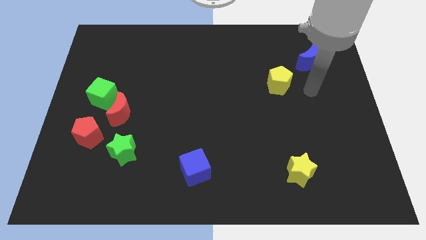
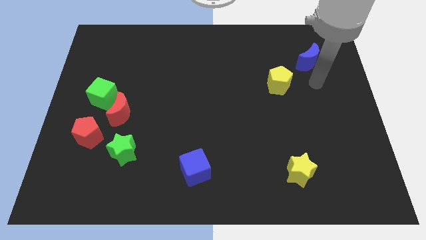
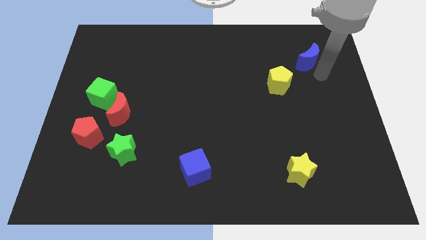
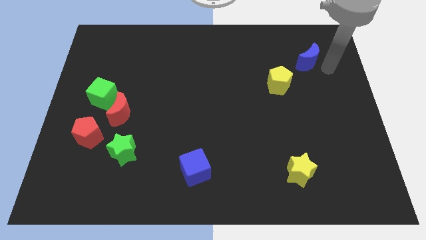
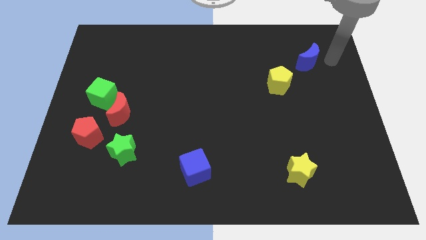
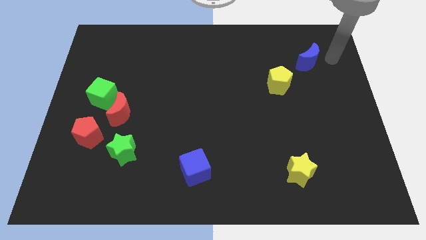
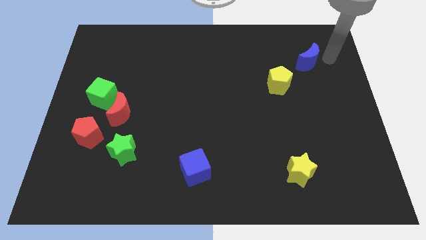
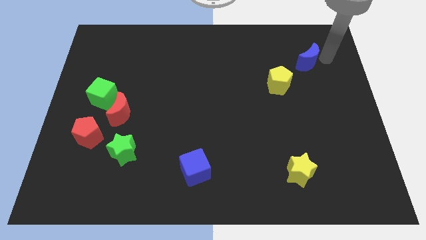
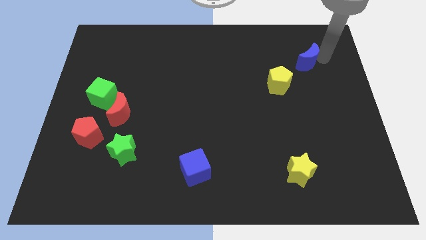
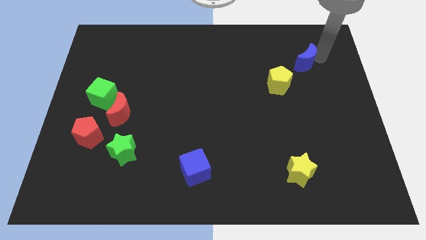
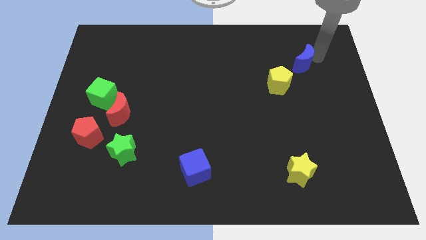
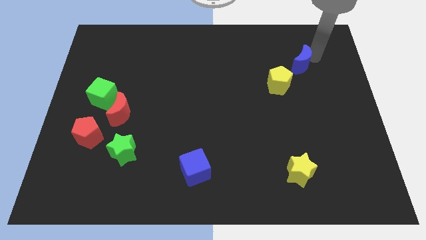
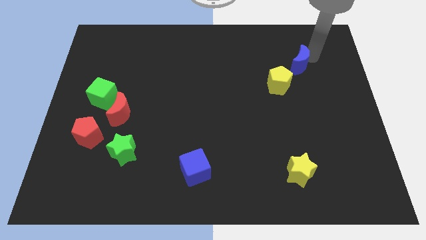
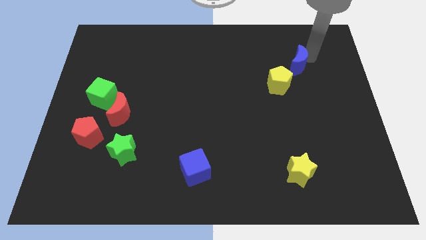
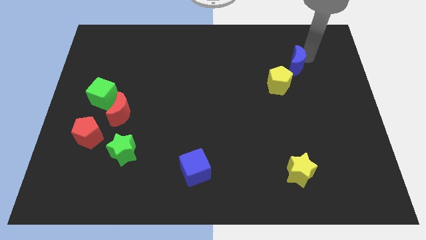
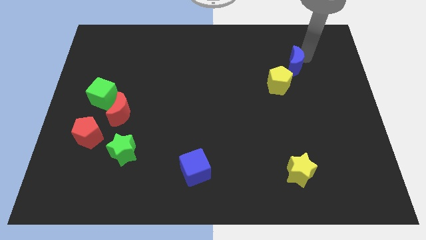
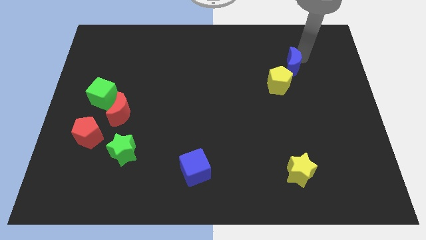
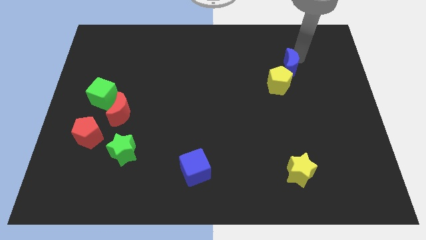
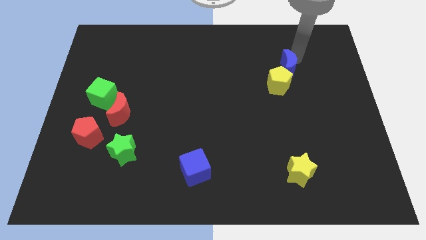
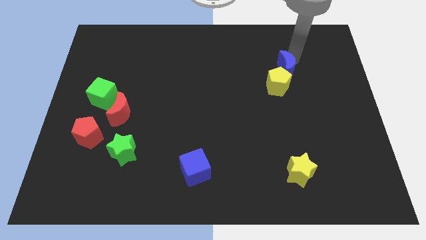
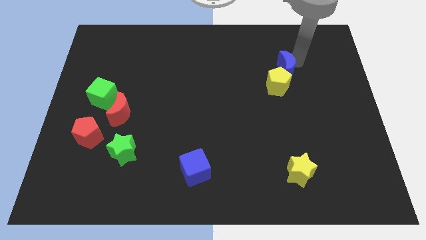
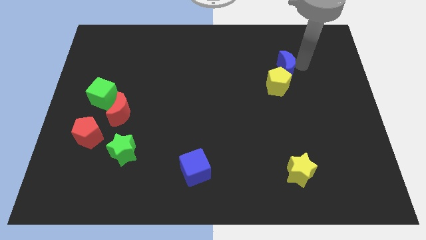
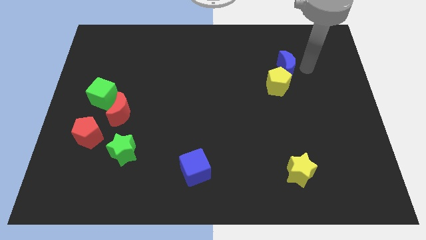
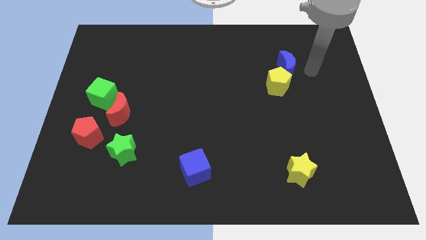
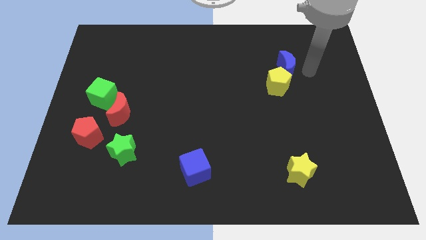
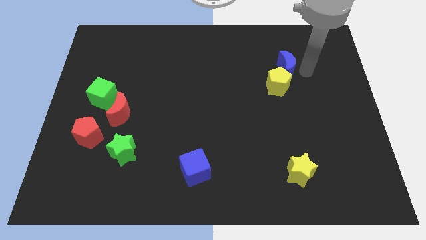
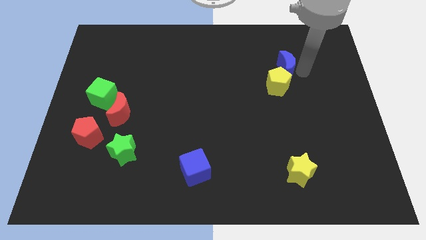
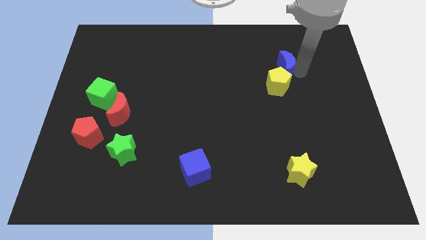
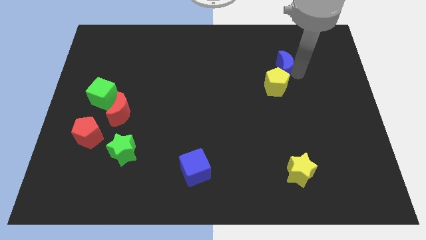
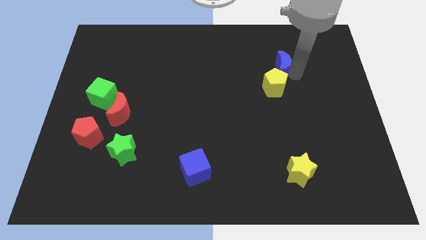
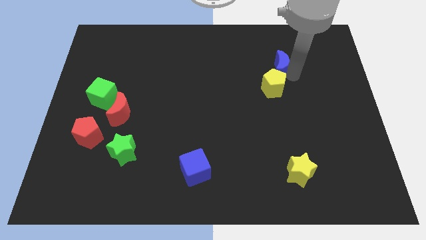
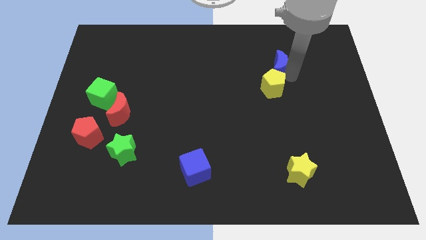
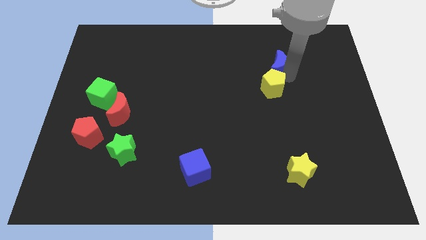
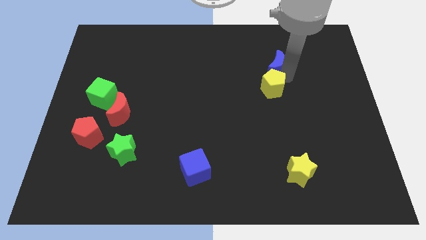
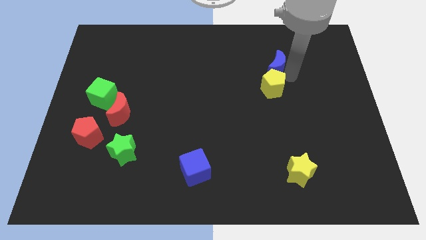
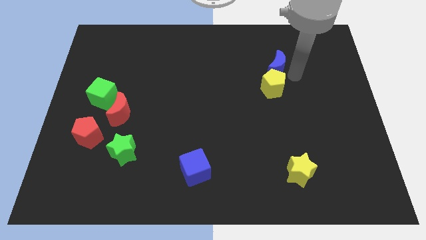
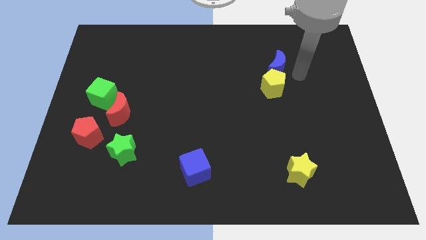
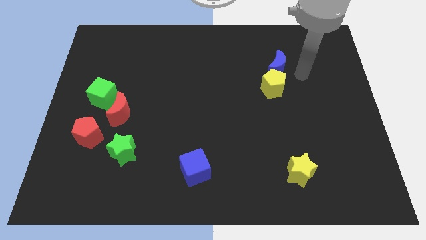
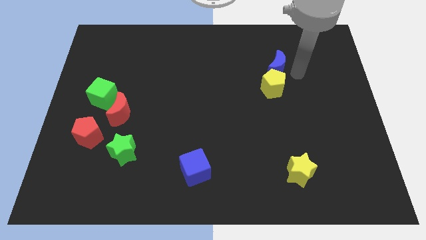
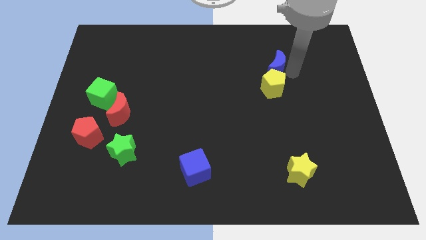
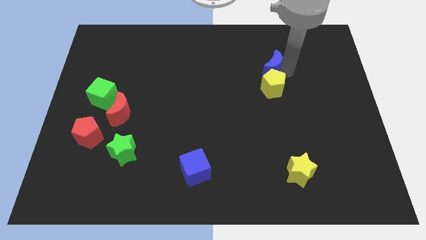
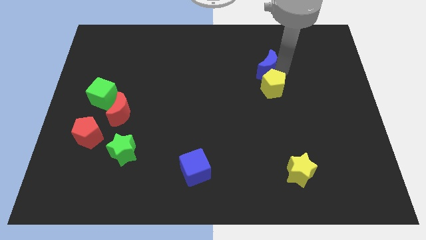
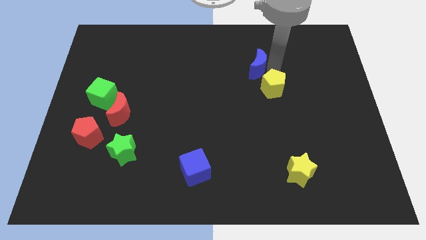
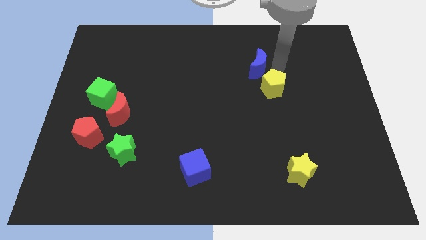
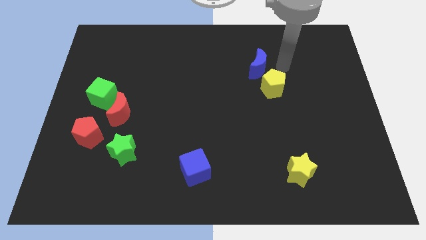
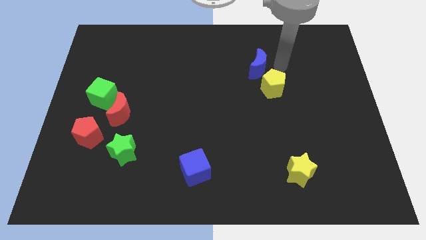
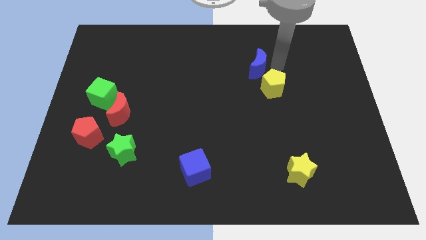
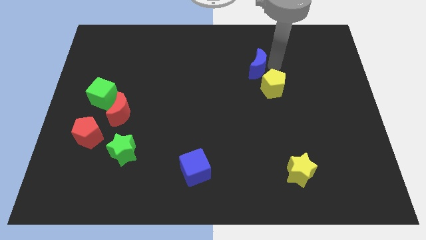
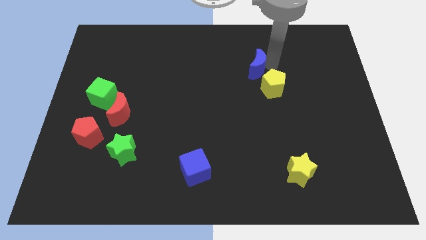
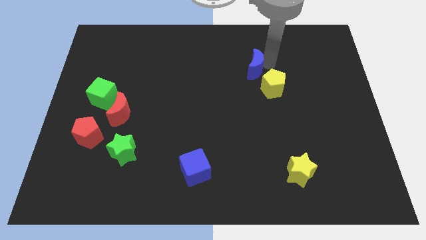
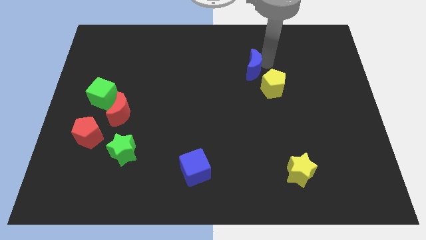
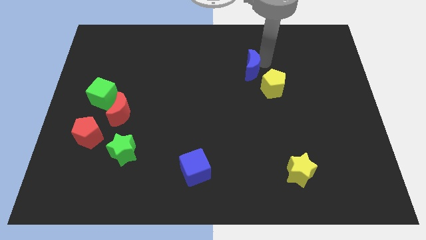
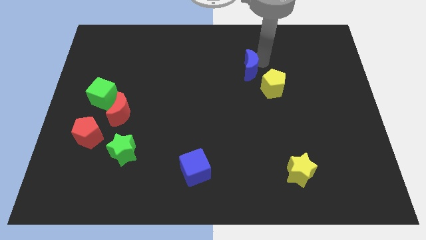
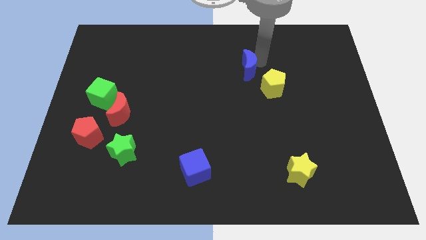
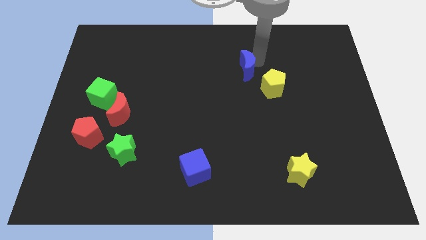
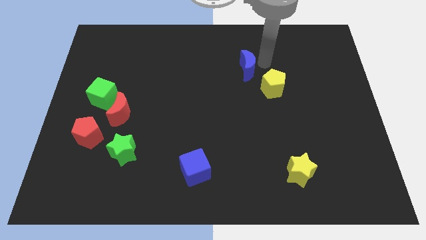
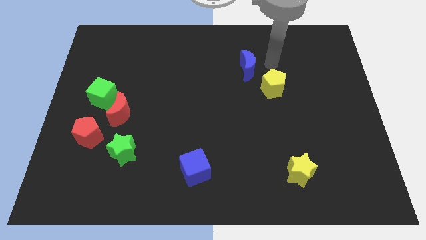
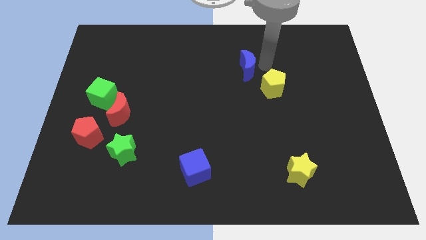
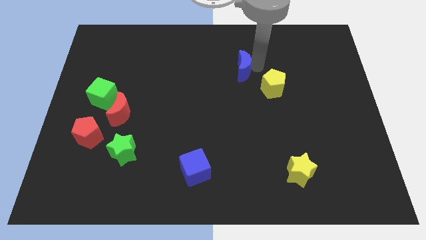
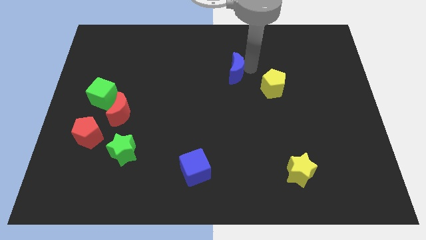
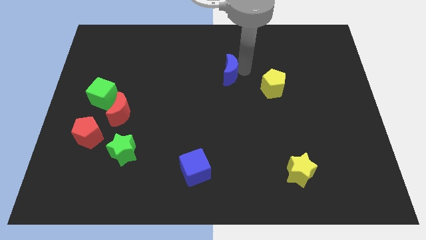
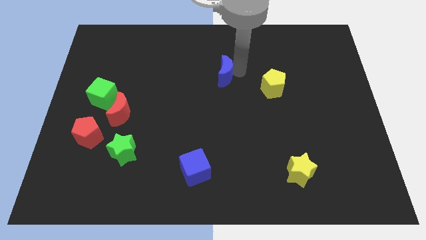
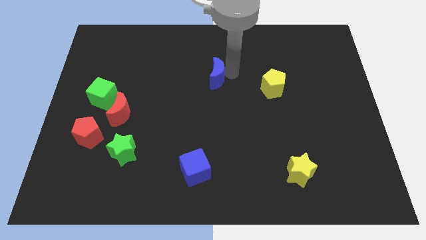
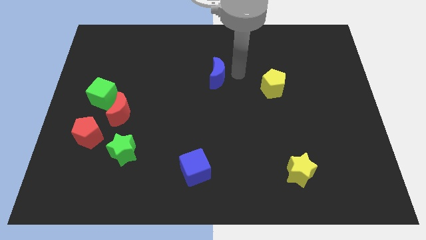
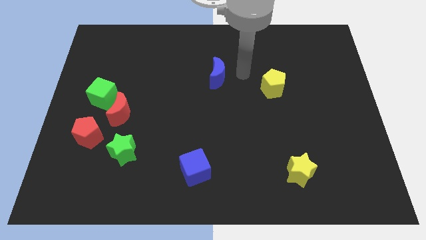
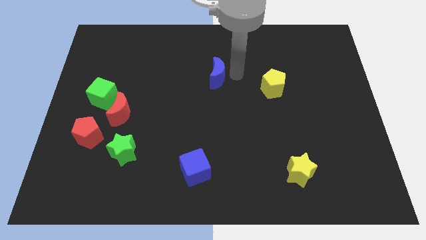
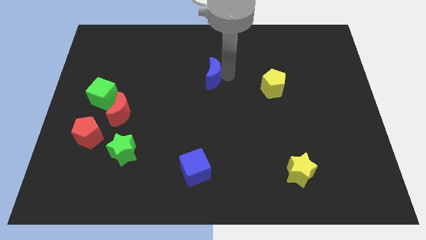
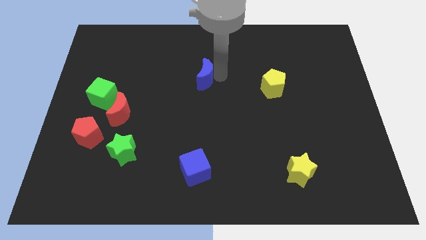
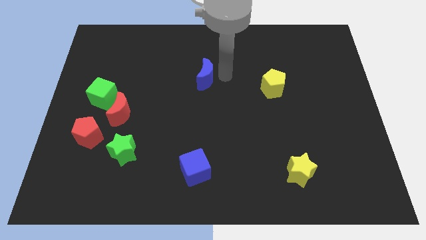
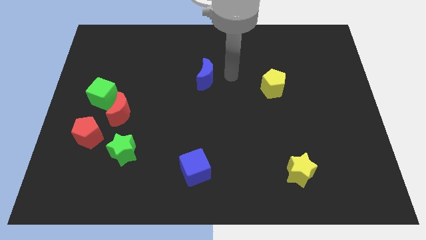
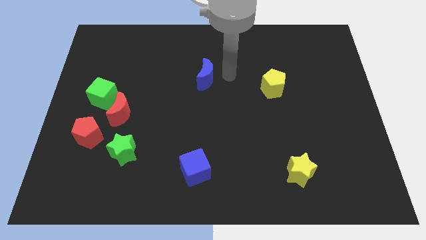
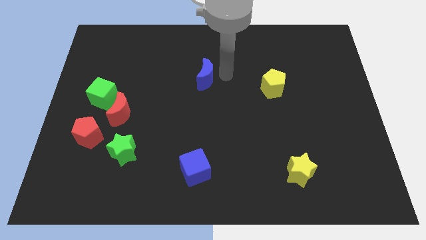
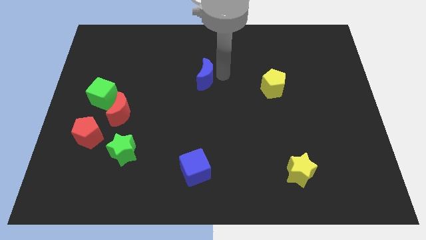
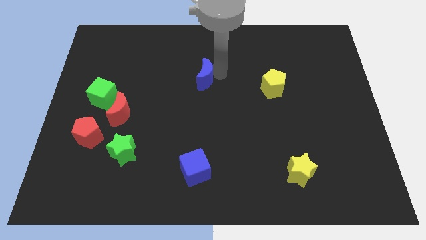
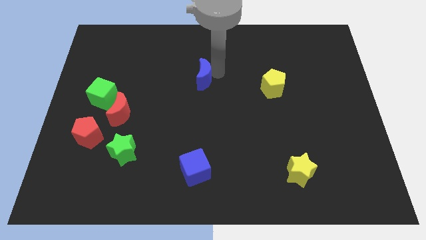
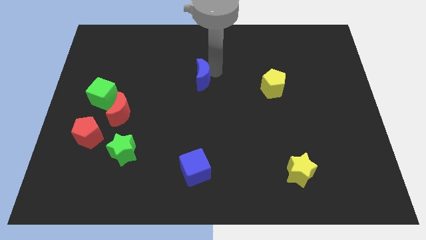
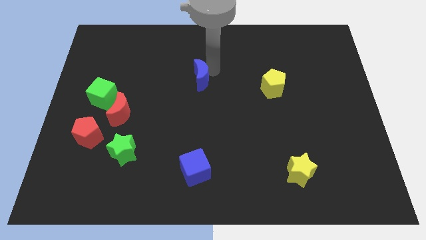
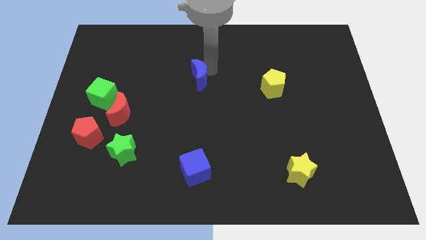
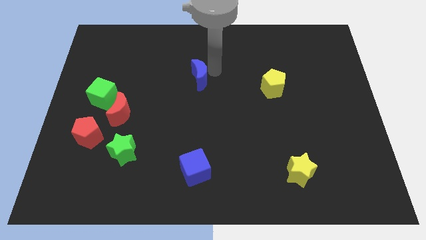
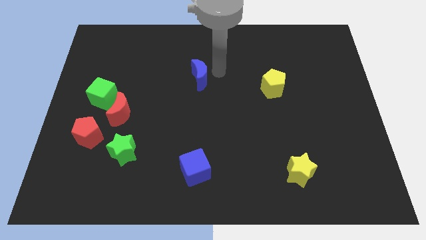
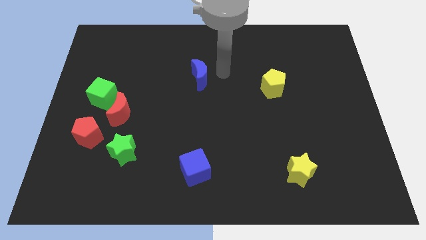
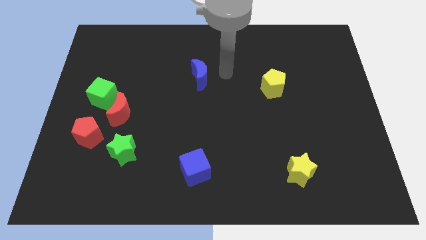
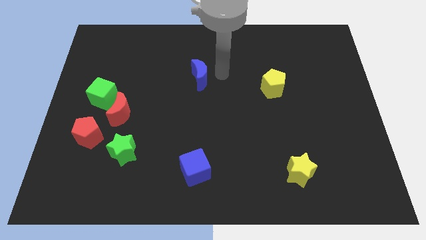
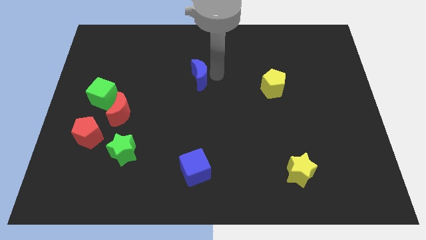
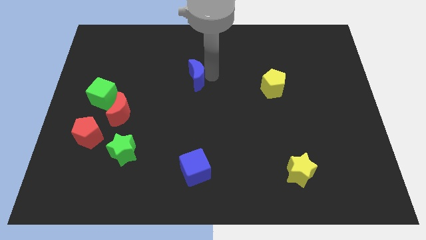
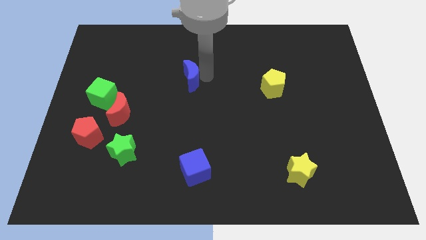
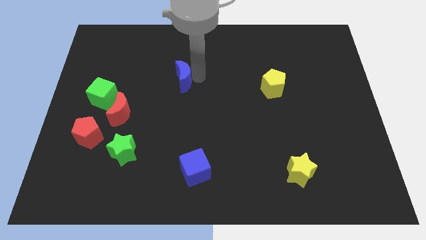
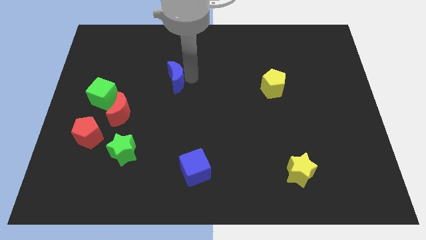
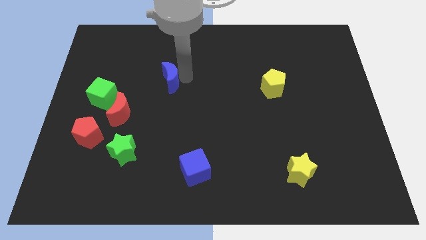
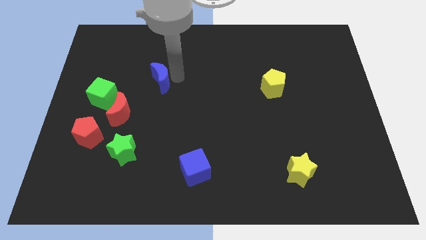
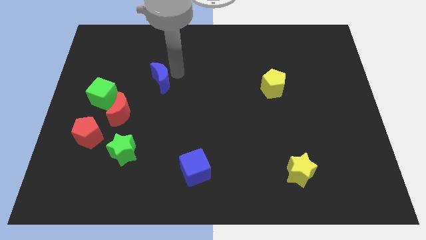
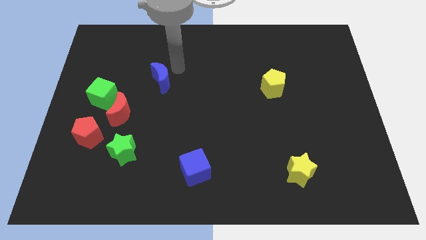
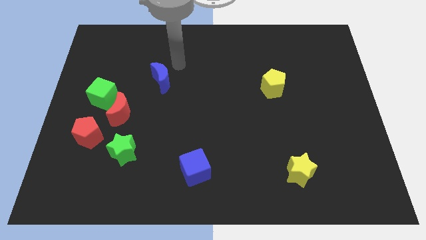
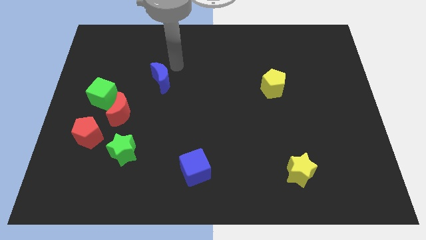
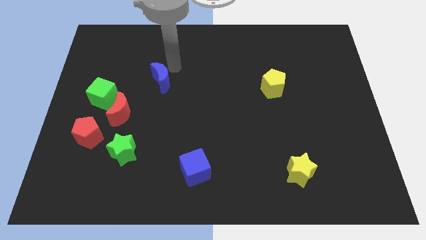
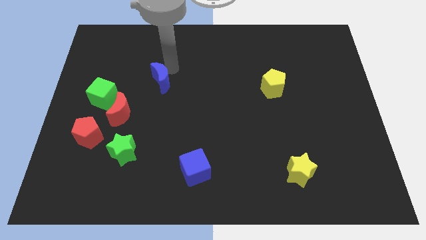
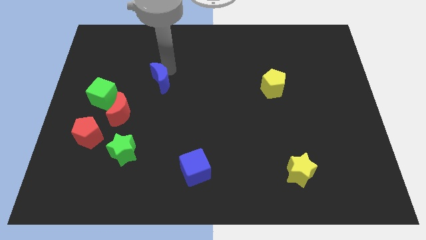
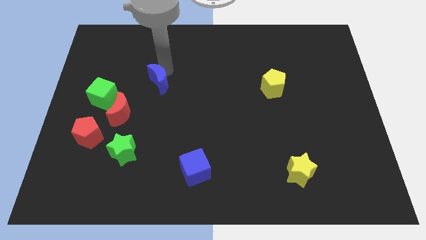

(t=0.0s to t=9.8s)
put the blue moon diagonally up and to the right of the red moon
